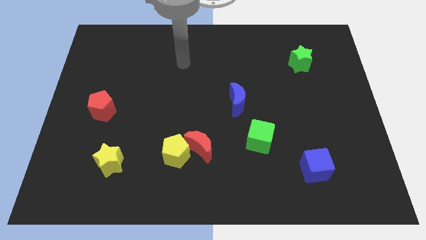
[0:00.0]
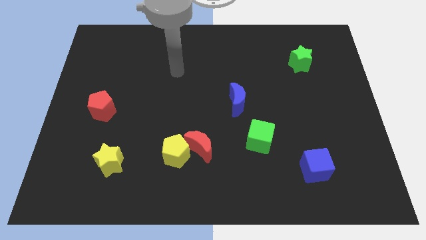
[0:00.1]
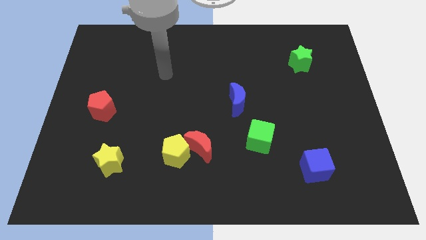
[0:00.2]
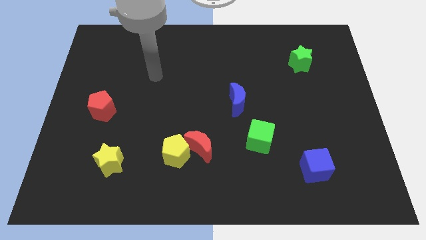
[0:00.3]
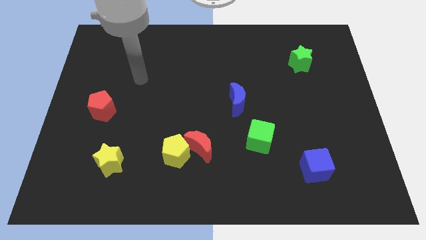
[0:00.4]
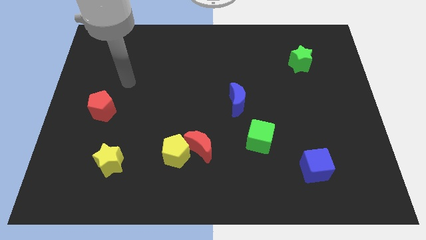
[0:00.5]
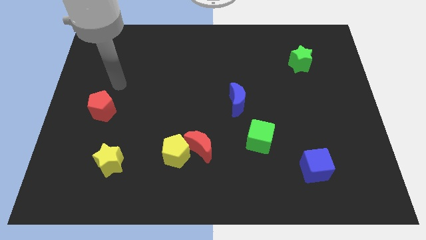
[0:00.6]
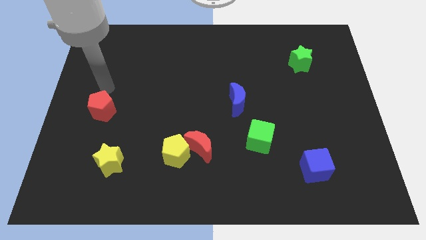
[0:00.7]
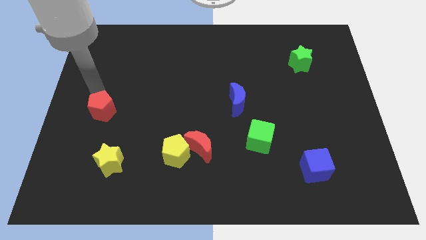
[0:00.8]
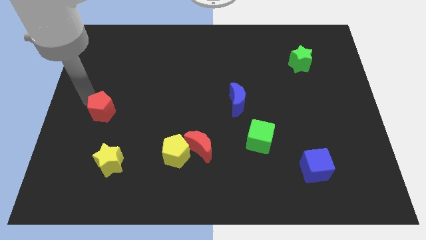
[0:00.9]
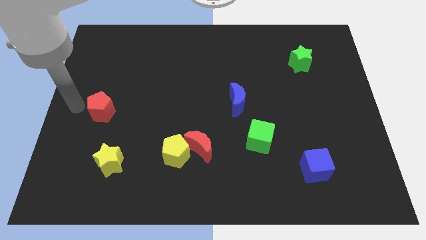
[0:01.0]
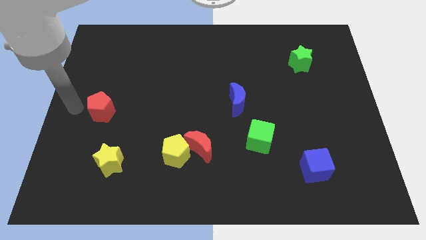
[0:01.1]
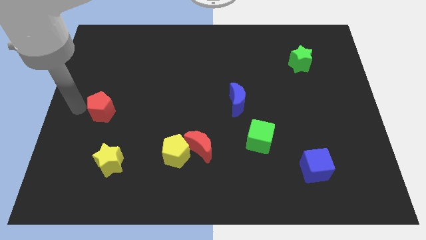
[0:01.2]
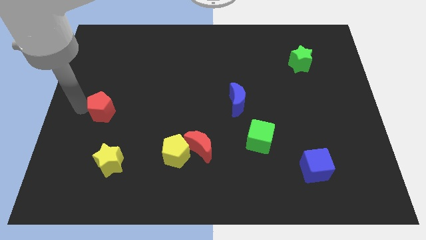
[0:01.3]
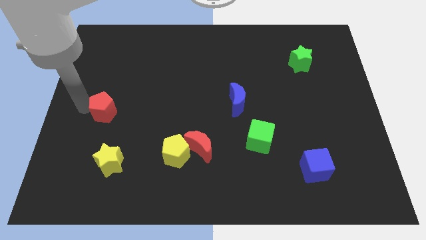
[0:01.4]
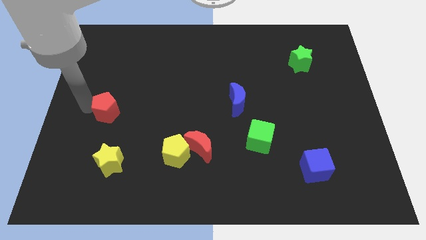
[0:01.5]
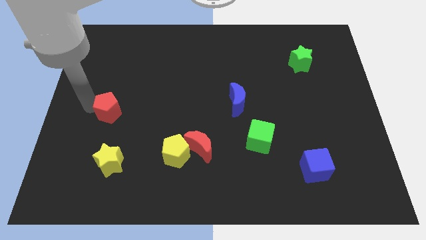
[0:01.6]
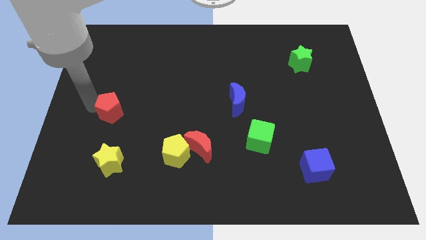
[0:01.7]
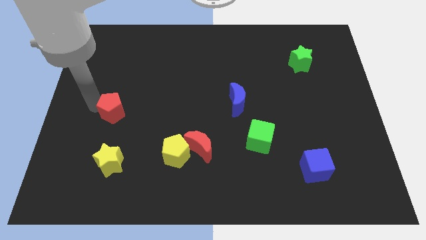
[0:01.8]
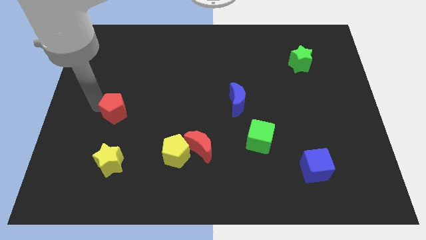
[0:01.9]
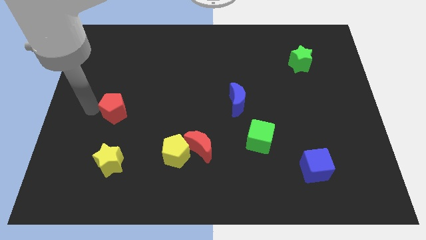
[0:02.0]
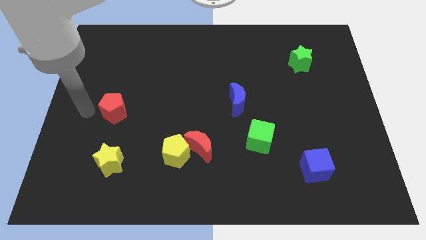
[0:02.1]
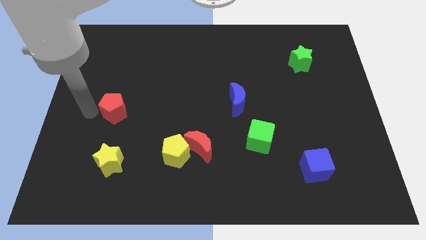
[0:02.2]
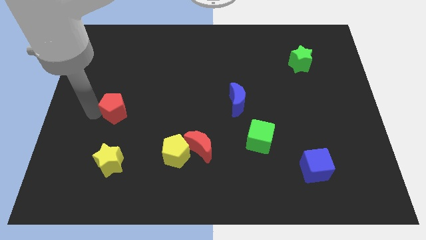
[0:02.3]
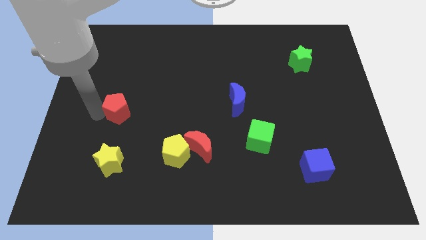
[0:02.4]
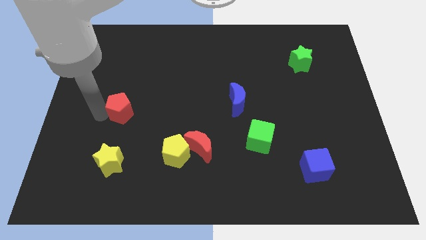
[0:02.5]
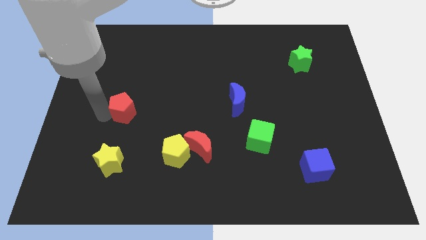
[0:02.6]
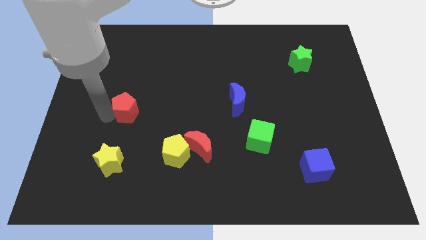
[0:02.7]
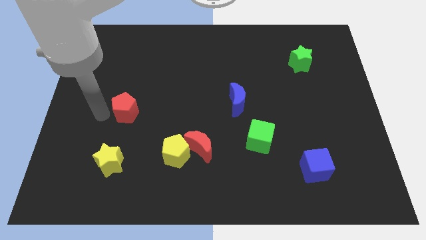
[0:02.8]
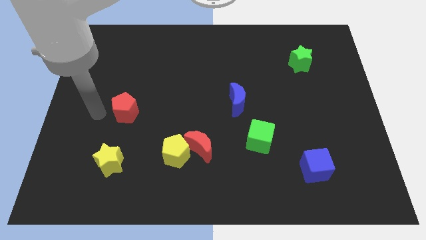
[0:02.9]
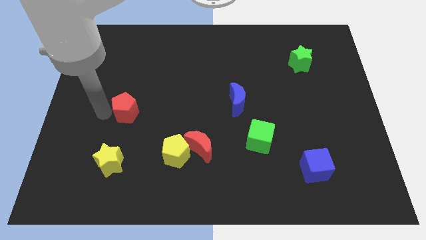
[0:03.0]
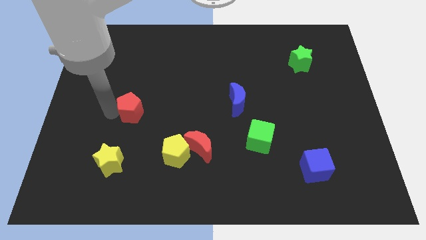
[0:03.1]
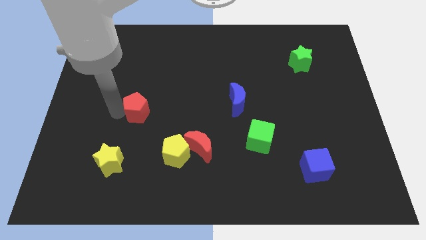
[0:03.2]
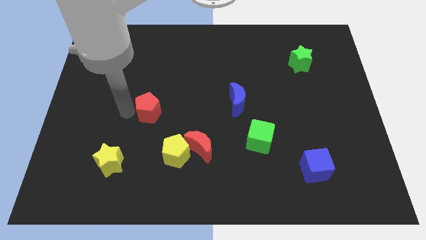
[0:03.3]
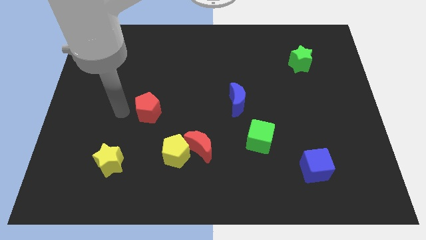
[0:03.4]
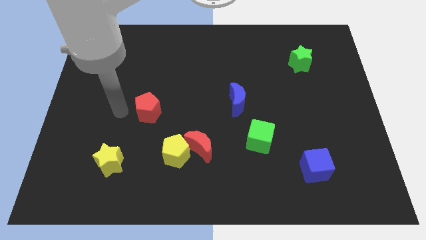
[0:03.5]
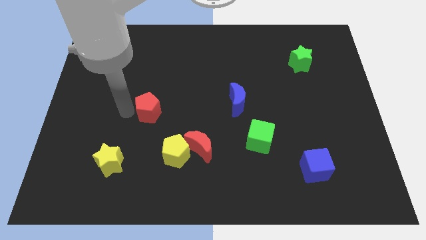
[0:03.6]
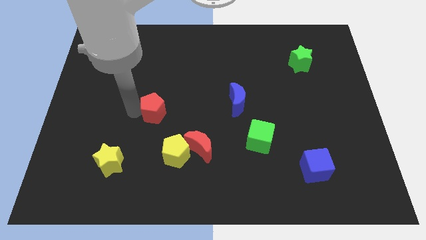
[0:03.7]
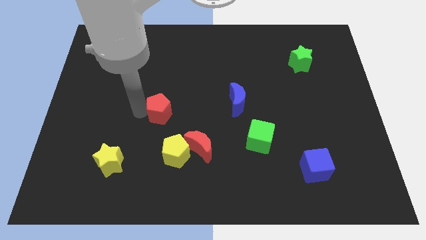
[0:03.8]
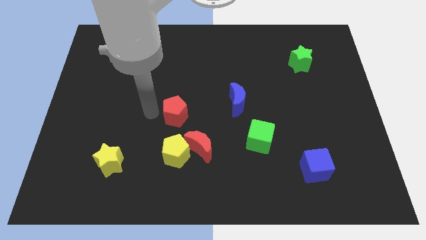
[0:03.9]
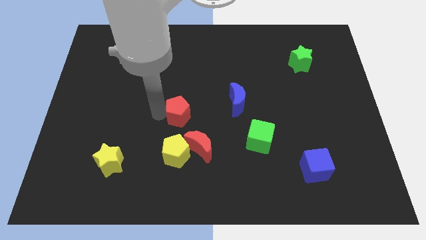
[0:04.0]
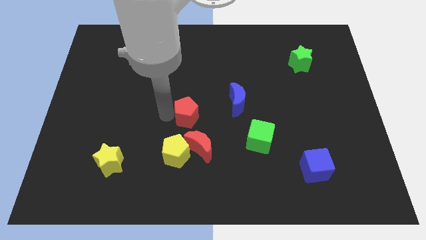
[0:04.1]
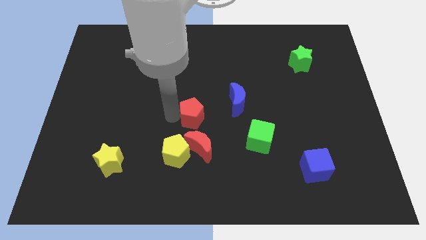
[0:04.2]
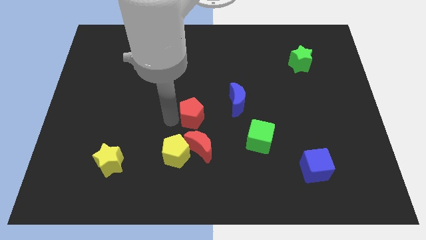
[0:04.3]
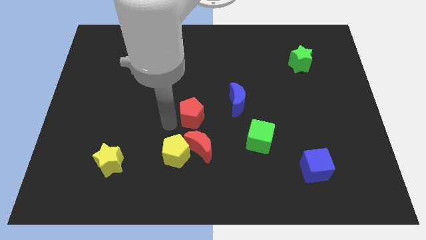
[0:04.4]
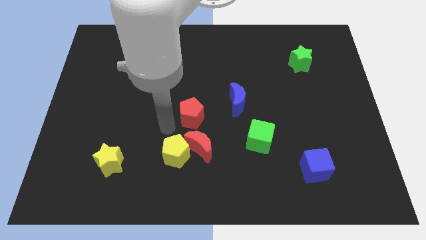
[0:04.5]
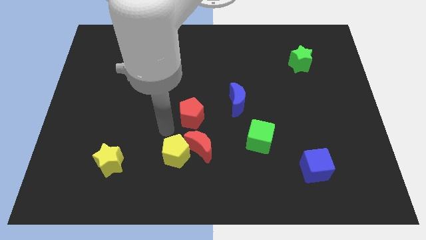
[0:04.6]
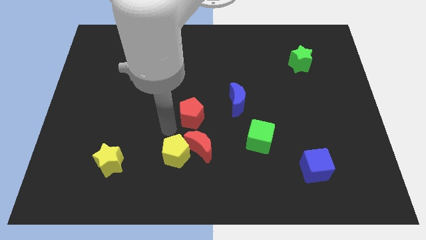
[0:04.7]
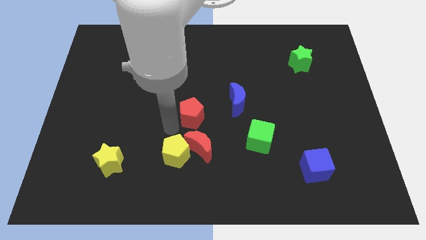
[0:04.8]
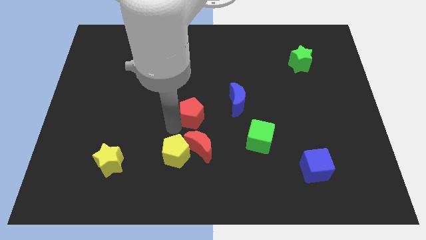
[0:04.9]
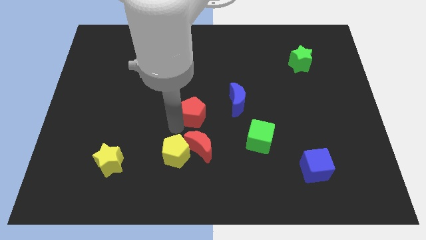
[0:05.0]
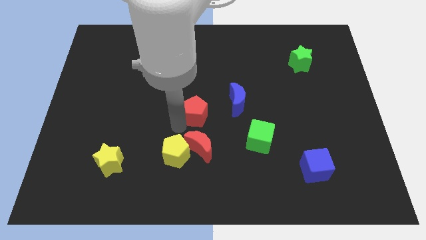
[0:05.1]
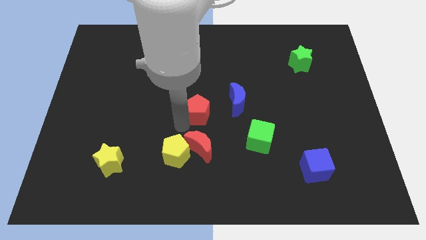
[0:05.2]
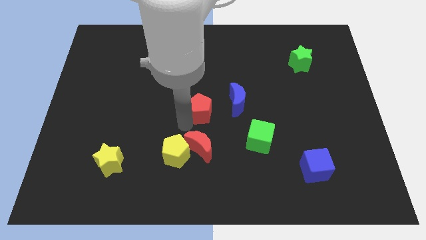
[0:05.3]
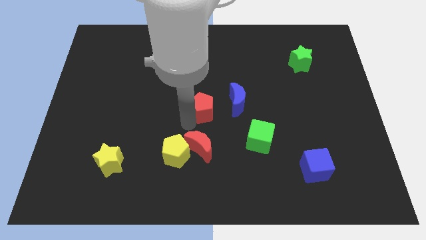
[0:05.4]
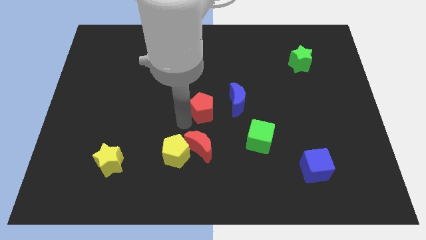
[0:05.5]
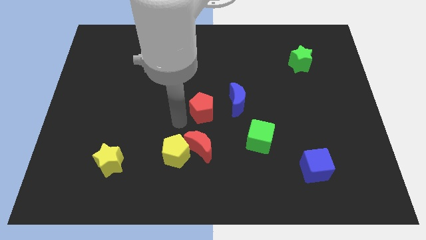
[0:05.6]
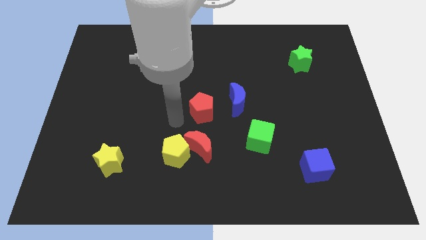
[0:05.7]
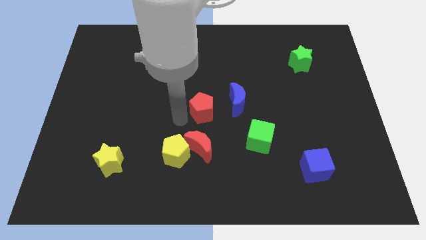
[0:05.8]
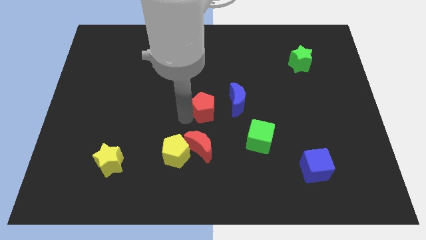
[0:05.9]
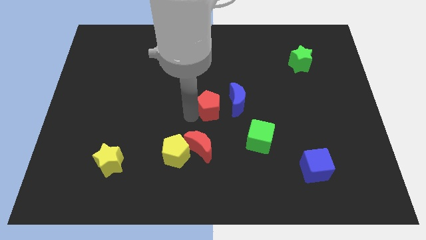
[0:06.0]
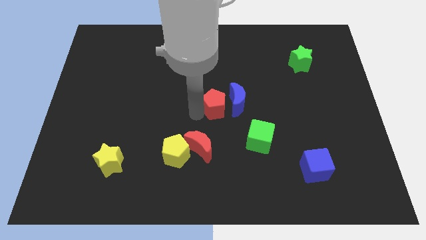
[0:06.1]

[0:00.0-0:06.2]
push the red pentagon to the blue moon
